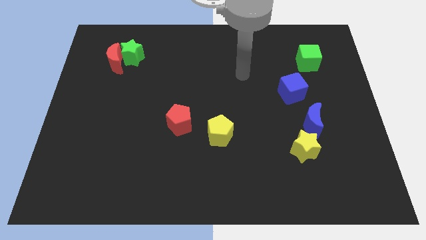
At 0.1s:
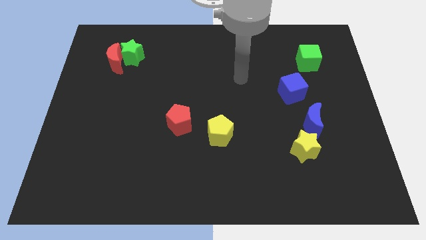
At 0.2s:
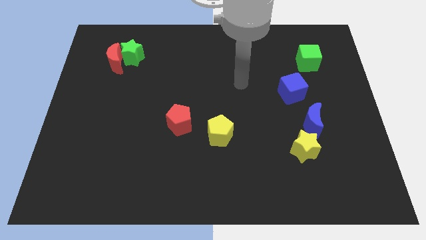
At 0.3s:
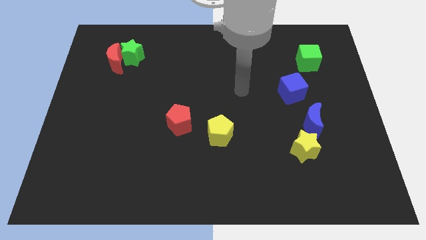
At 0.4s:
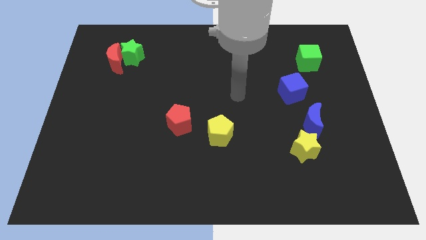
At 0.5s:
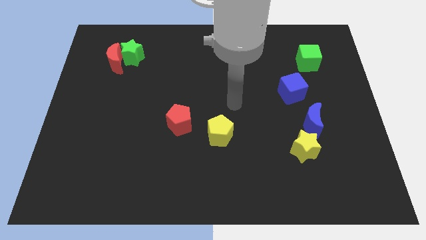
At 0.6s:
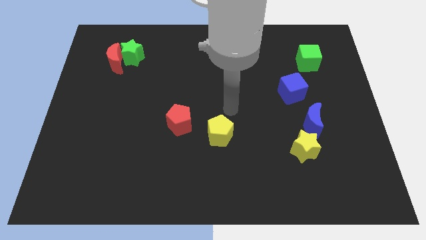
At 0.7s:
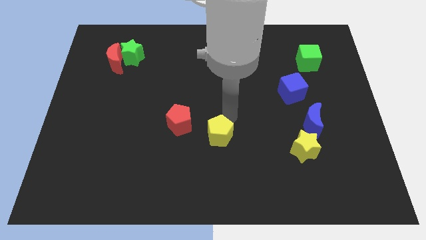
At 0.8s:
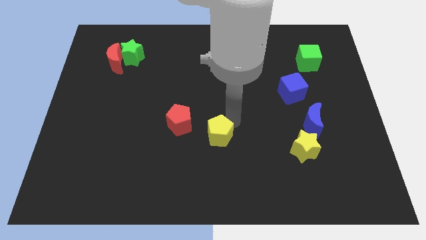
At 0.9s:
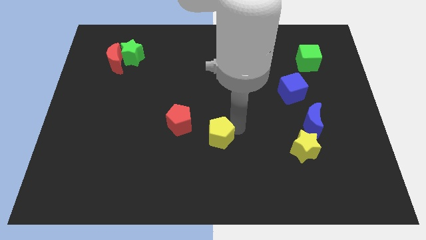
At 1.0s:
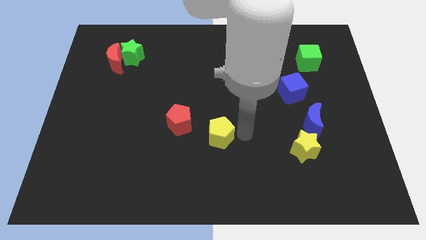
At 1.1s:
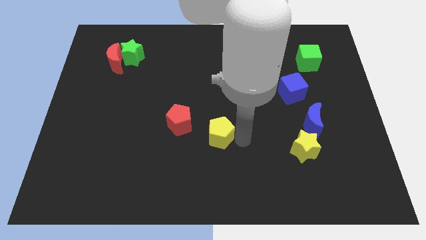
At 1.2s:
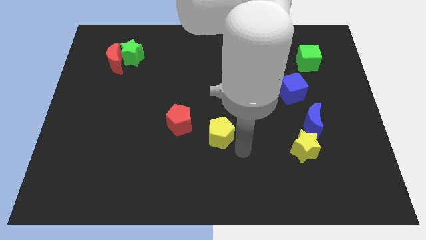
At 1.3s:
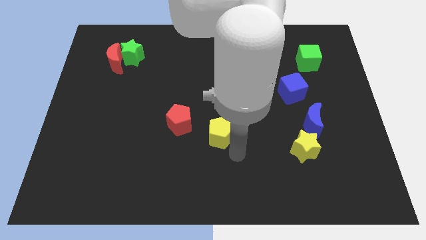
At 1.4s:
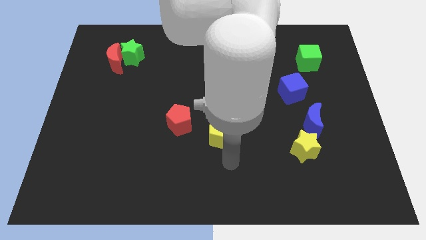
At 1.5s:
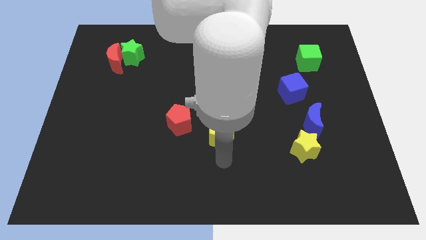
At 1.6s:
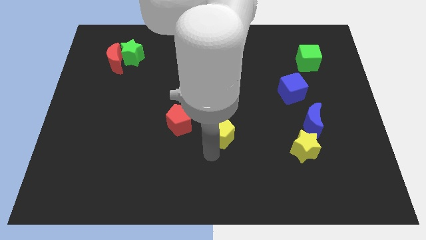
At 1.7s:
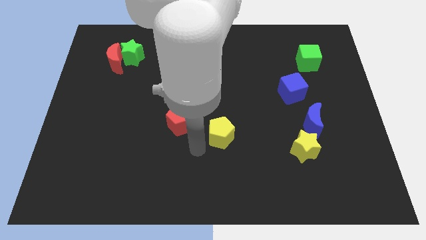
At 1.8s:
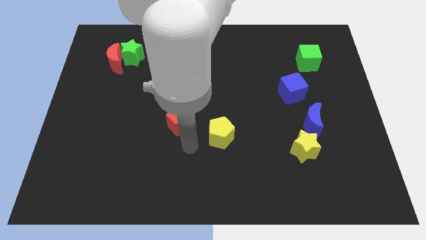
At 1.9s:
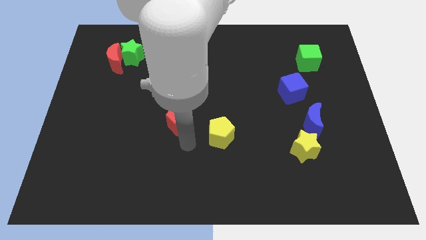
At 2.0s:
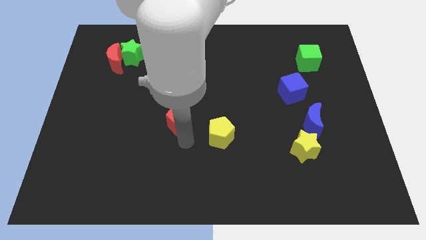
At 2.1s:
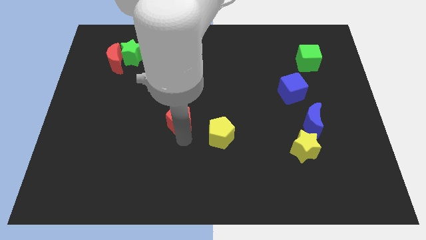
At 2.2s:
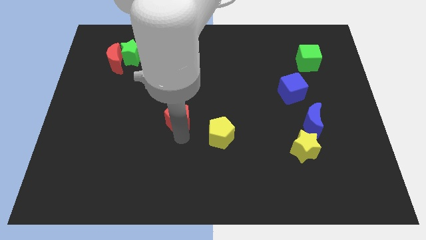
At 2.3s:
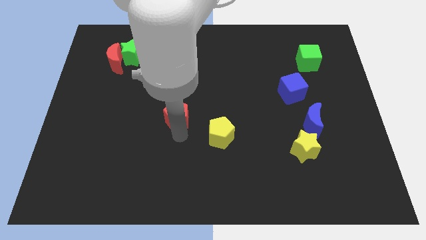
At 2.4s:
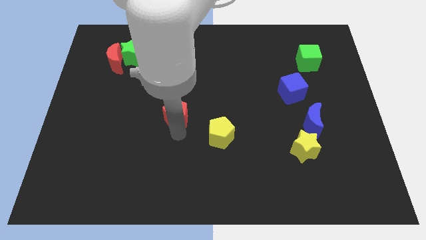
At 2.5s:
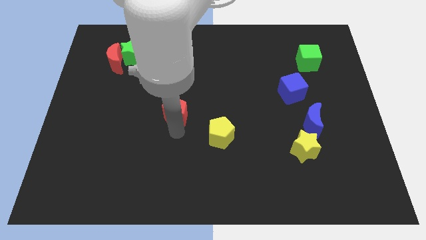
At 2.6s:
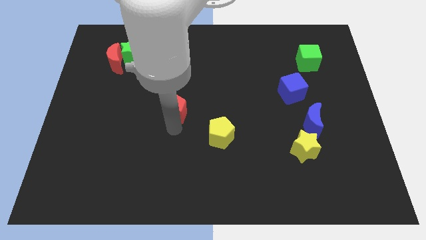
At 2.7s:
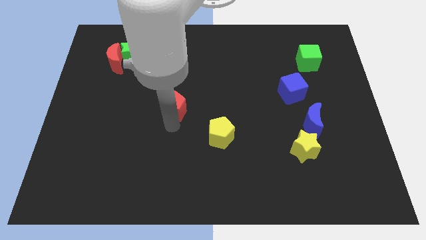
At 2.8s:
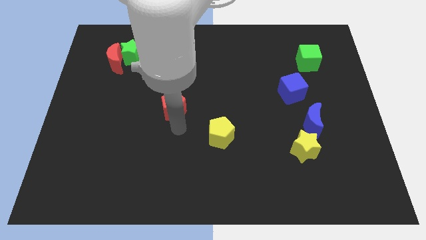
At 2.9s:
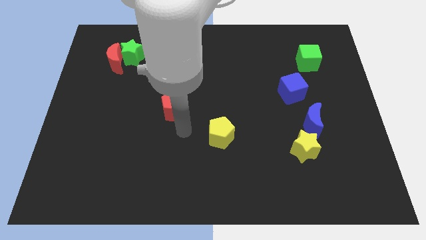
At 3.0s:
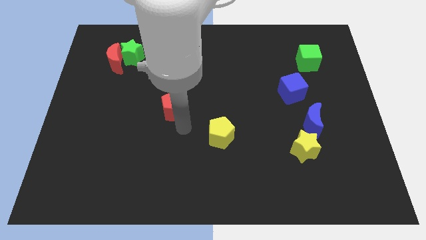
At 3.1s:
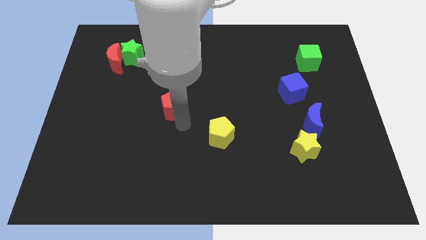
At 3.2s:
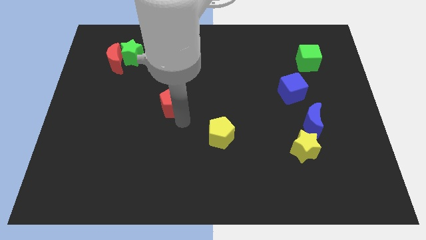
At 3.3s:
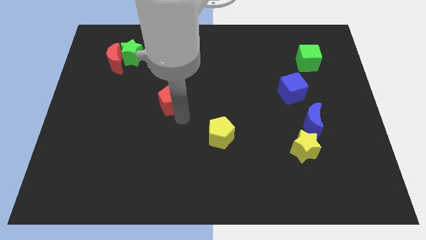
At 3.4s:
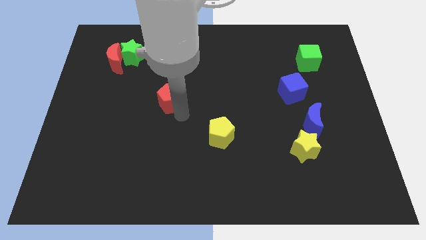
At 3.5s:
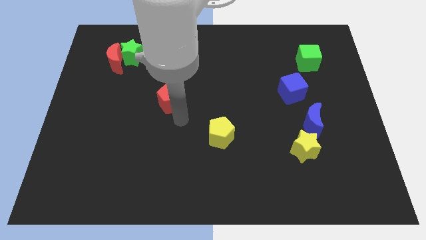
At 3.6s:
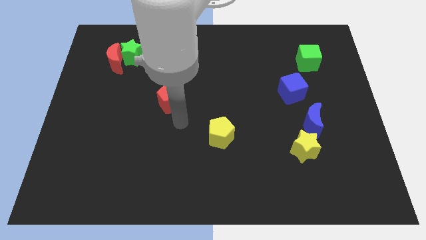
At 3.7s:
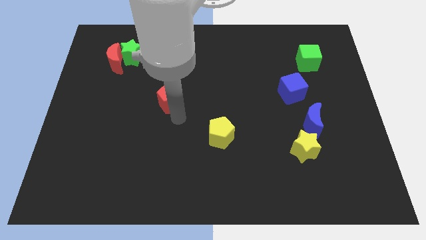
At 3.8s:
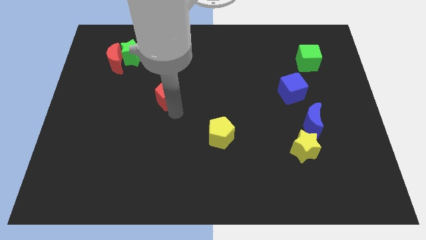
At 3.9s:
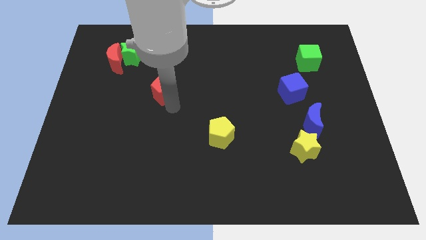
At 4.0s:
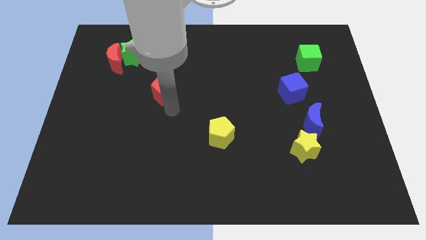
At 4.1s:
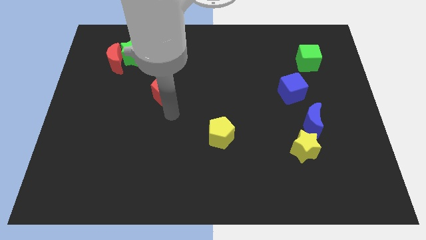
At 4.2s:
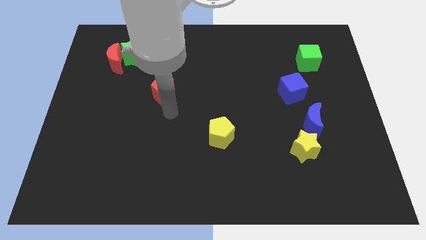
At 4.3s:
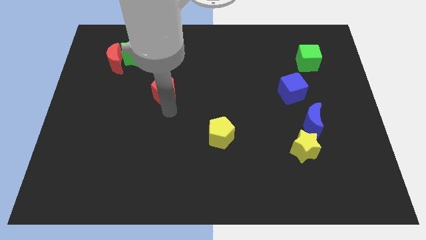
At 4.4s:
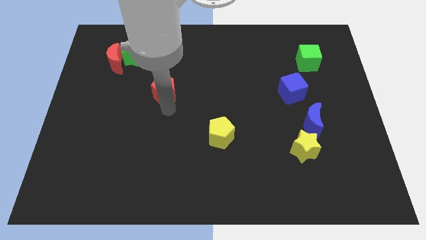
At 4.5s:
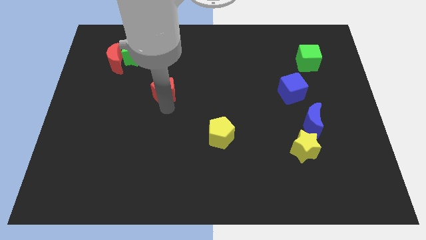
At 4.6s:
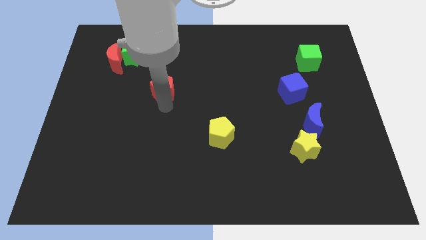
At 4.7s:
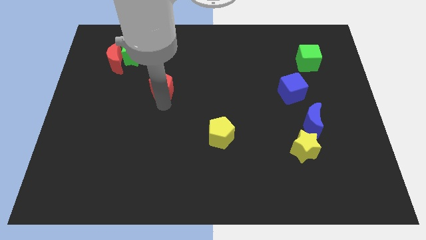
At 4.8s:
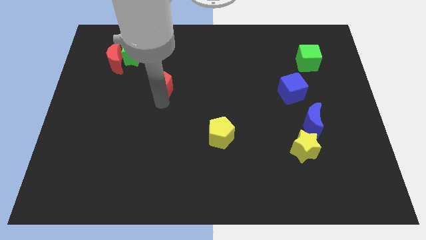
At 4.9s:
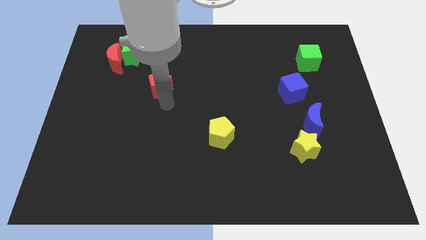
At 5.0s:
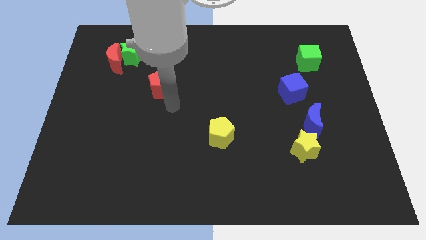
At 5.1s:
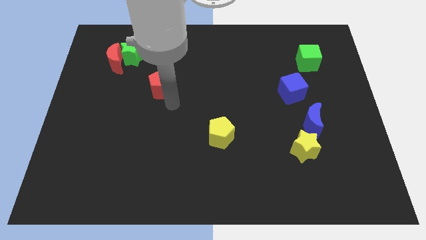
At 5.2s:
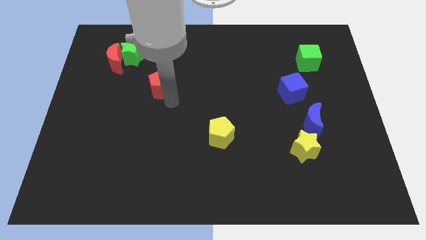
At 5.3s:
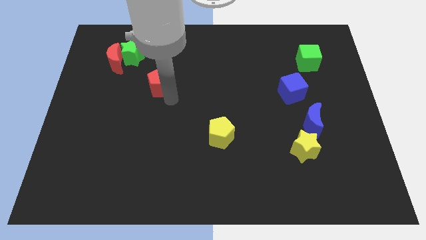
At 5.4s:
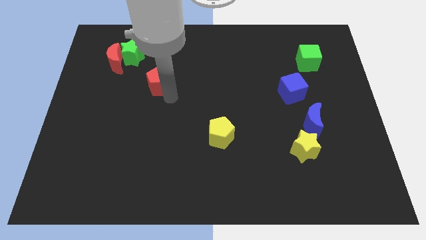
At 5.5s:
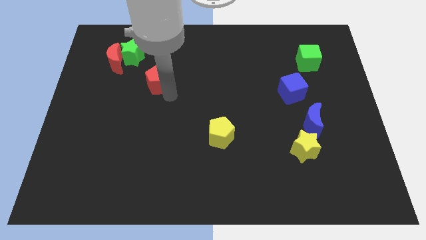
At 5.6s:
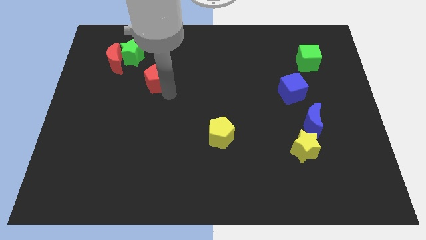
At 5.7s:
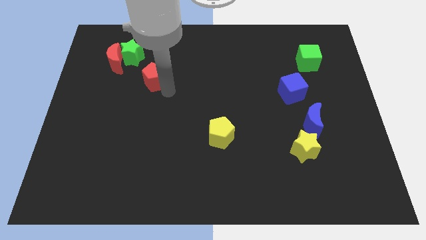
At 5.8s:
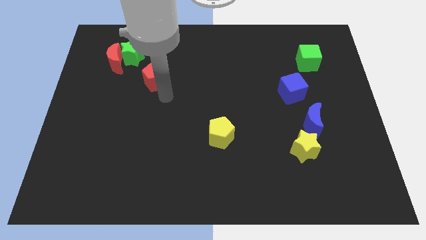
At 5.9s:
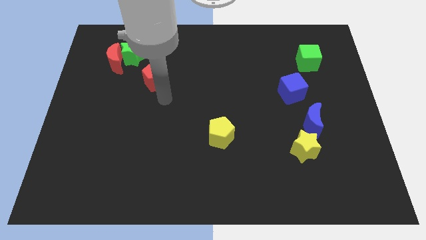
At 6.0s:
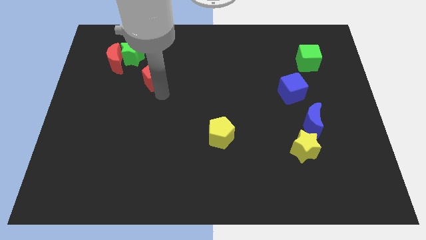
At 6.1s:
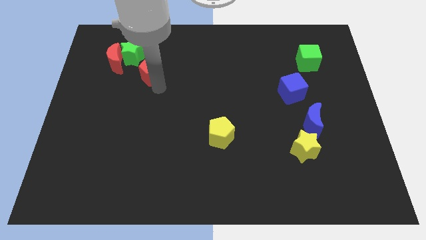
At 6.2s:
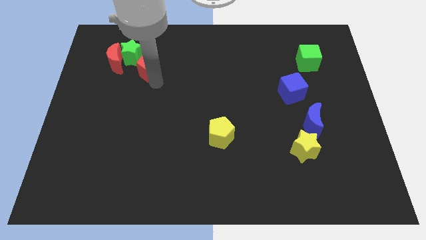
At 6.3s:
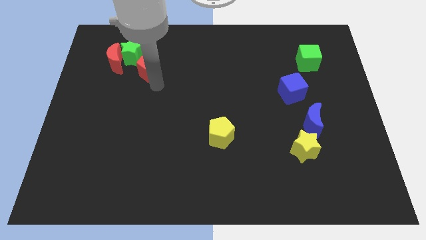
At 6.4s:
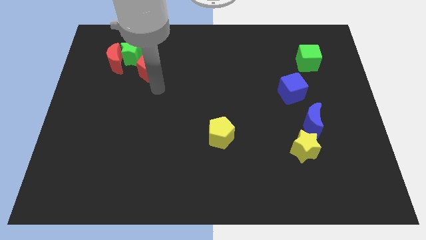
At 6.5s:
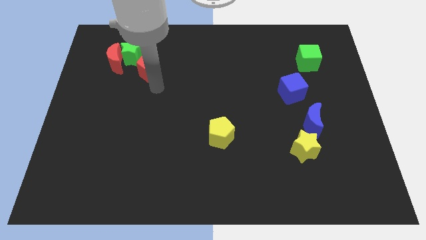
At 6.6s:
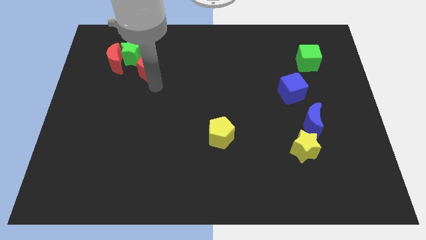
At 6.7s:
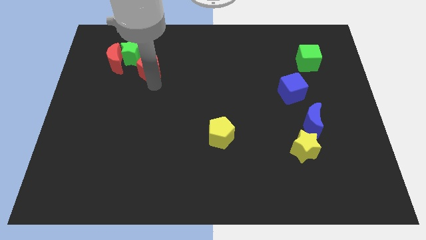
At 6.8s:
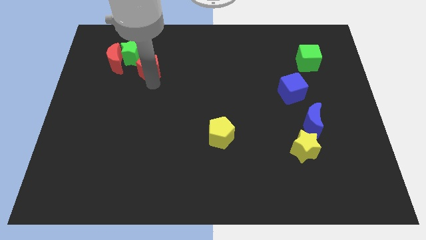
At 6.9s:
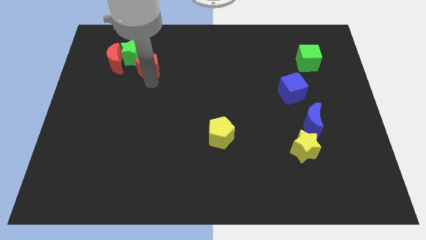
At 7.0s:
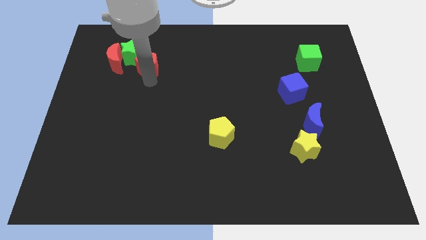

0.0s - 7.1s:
slide the red pentagon towards the green star
